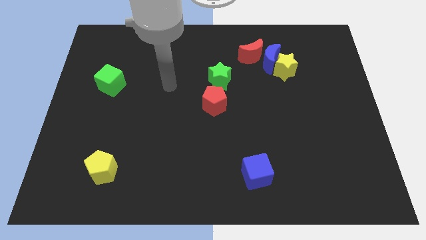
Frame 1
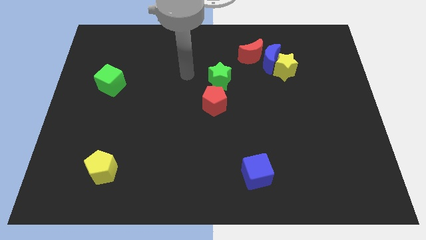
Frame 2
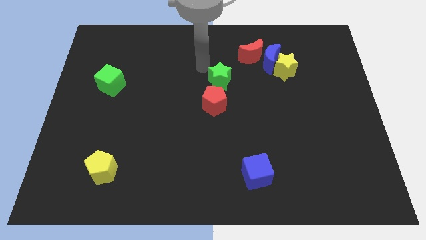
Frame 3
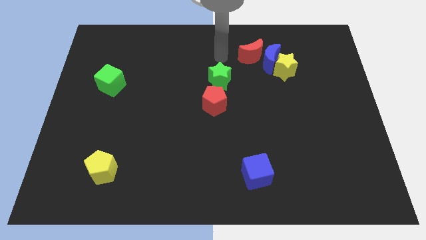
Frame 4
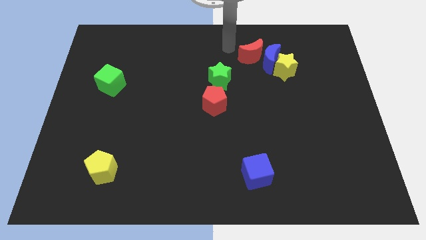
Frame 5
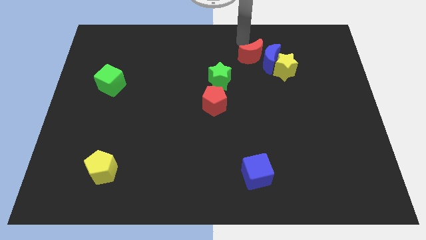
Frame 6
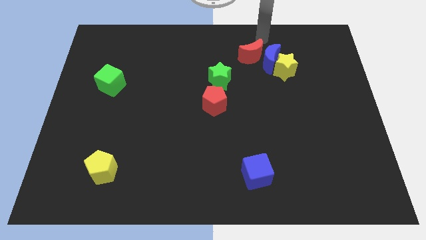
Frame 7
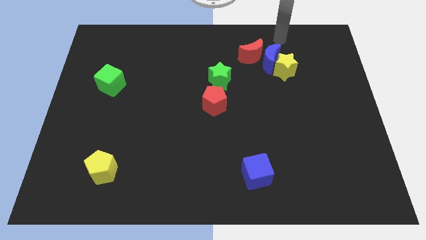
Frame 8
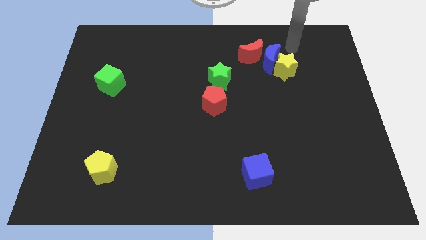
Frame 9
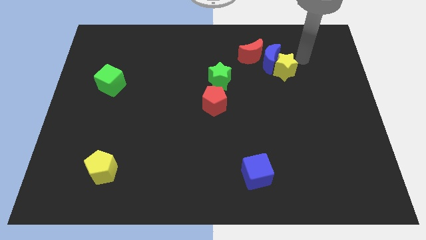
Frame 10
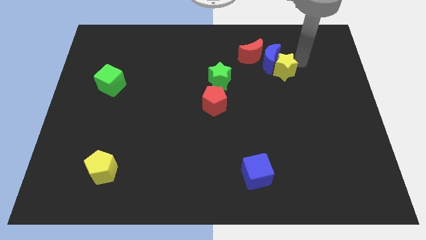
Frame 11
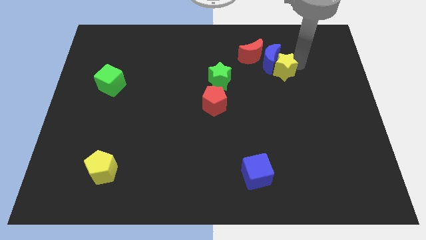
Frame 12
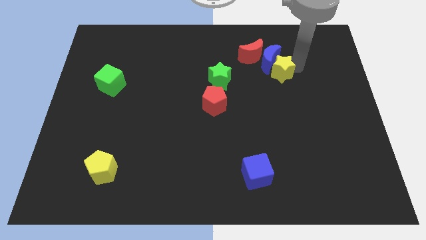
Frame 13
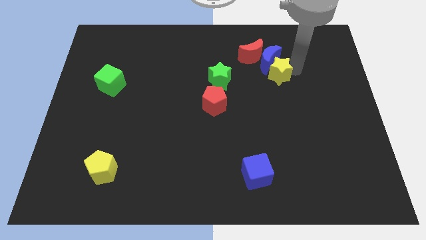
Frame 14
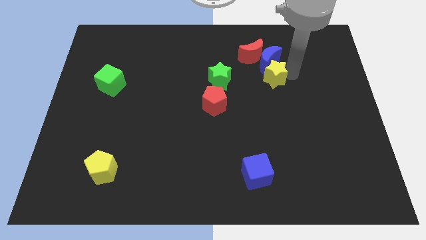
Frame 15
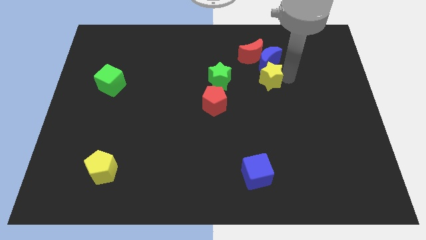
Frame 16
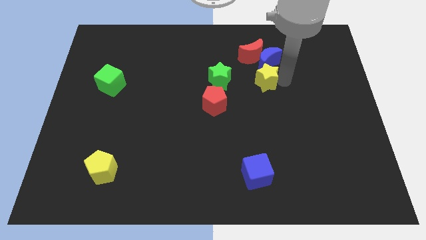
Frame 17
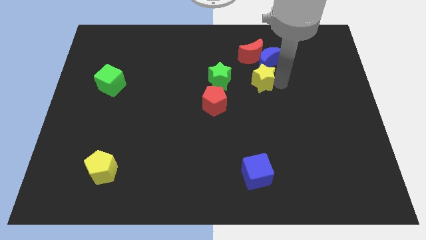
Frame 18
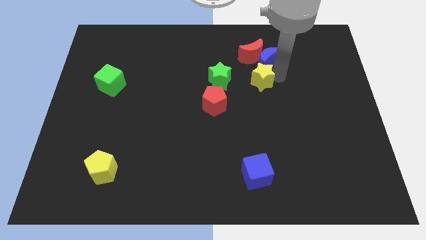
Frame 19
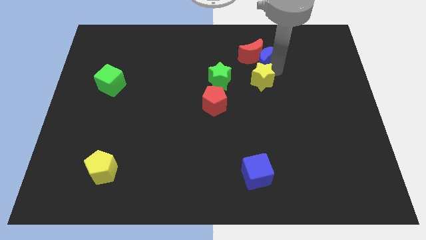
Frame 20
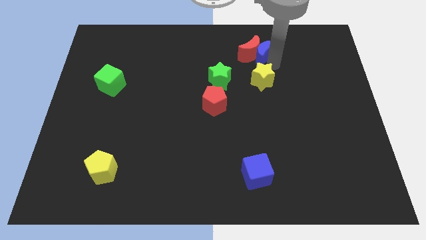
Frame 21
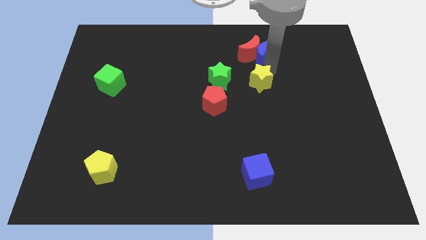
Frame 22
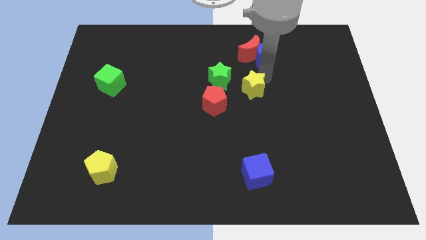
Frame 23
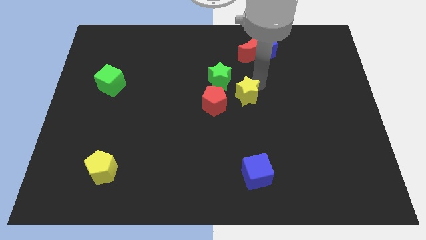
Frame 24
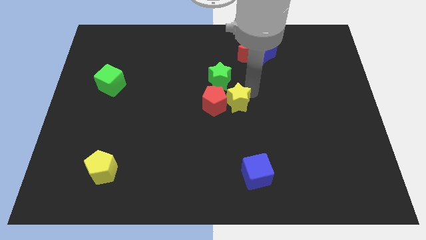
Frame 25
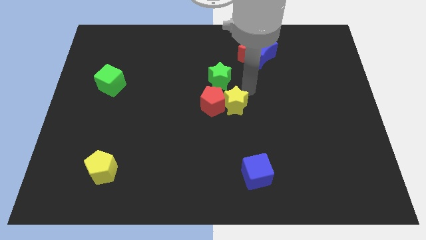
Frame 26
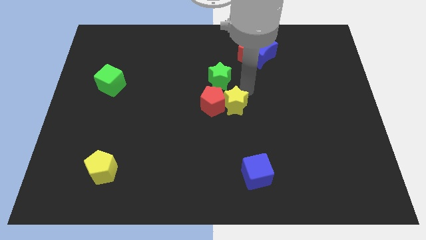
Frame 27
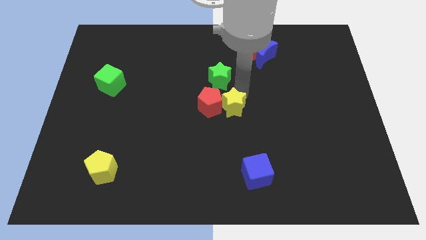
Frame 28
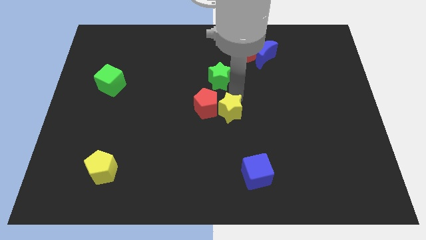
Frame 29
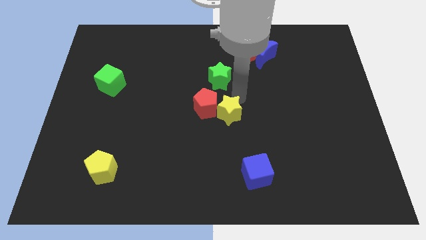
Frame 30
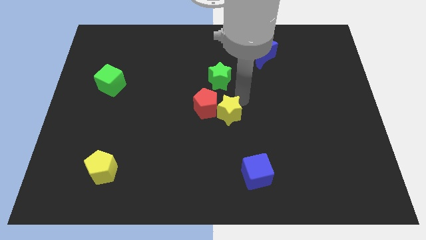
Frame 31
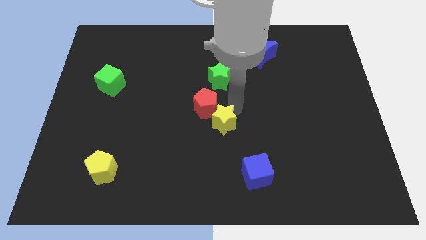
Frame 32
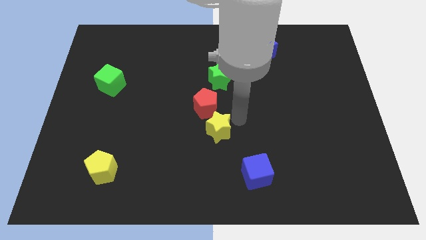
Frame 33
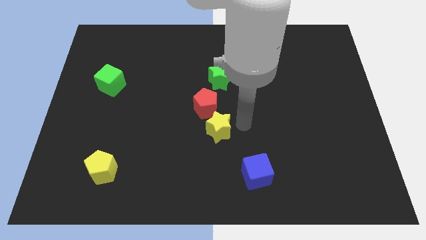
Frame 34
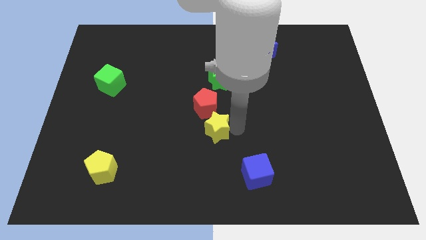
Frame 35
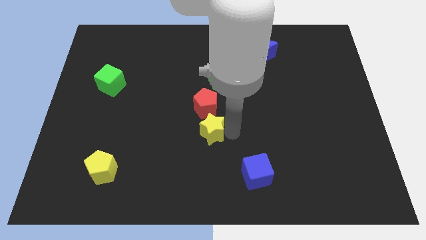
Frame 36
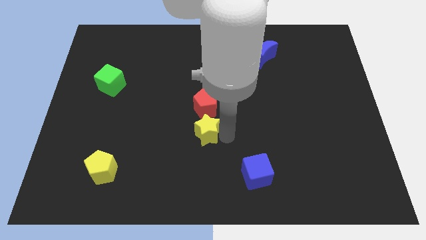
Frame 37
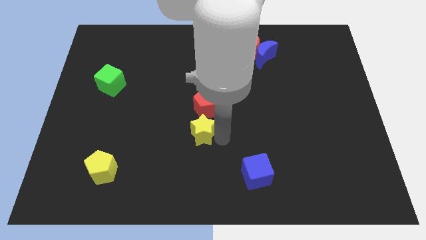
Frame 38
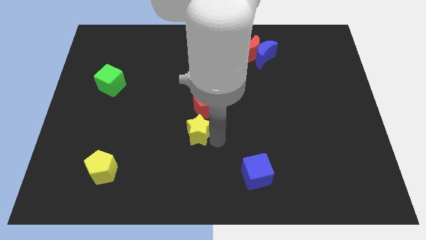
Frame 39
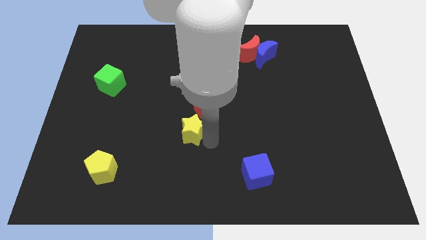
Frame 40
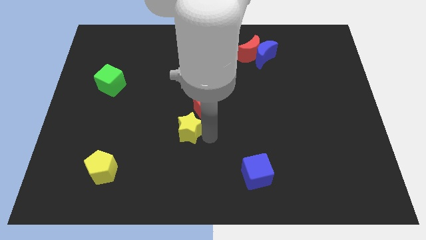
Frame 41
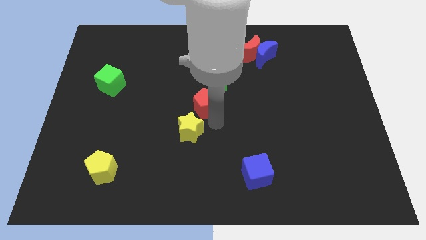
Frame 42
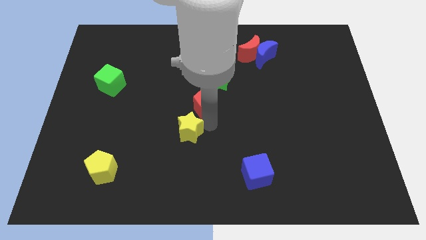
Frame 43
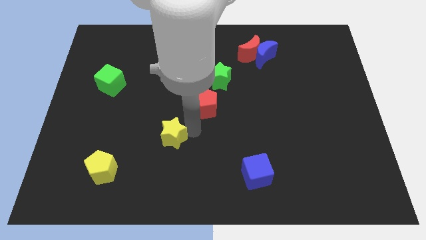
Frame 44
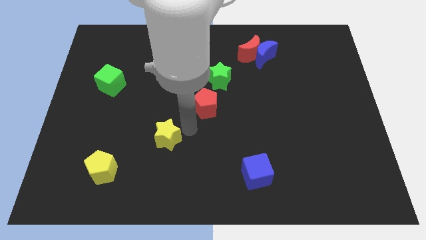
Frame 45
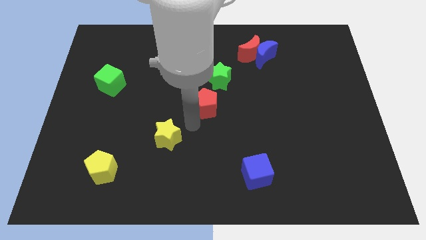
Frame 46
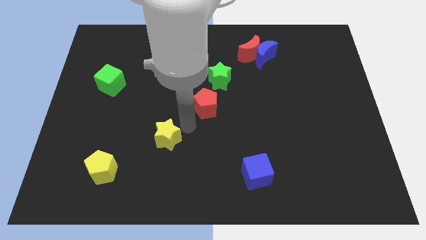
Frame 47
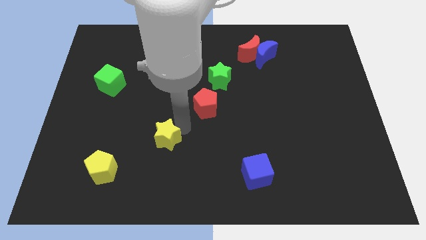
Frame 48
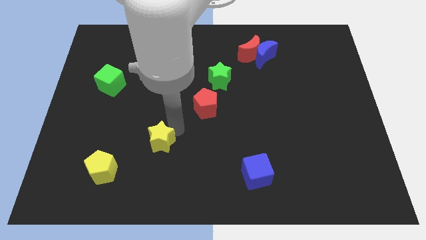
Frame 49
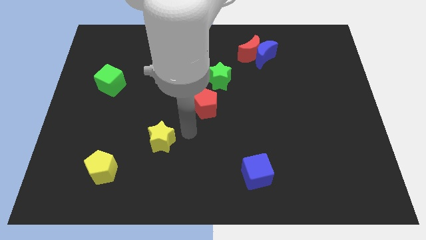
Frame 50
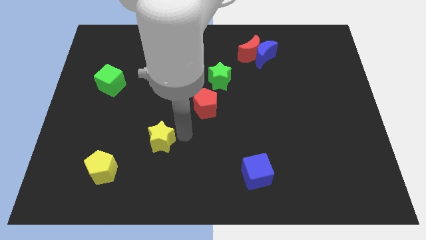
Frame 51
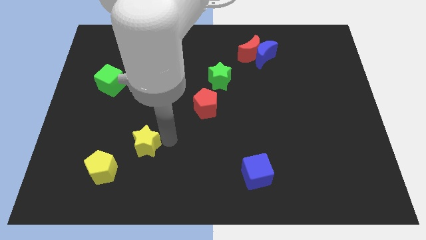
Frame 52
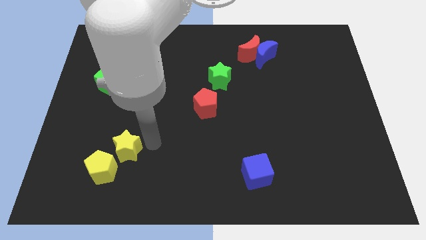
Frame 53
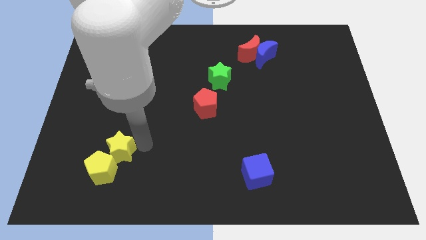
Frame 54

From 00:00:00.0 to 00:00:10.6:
put the yellow star next to the yellow pentagon

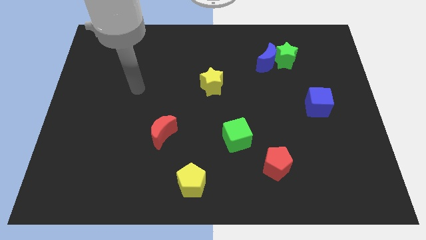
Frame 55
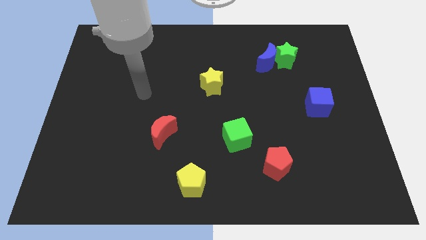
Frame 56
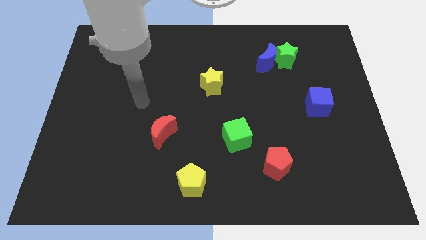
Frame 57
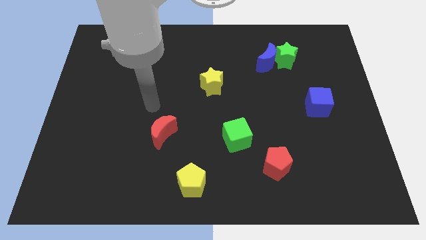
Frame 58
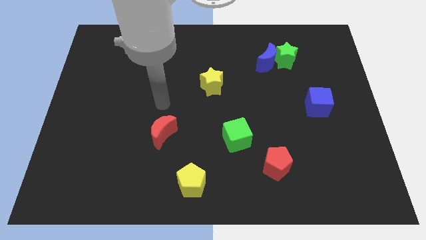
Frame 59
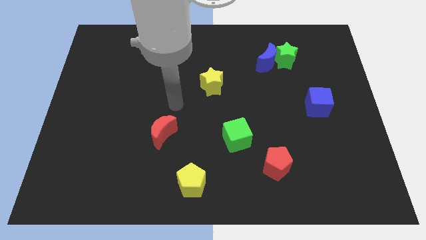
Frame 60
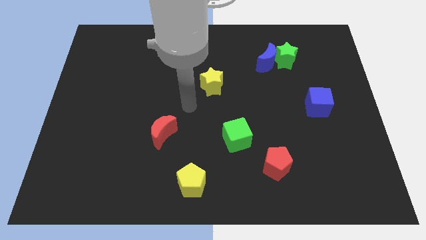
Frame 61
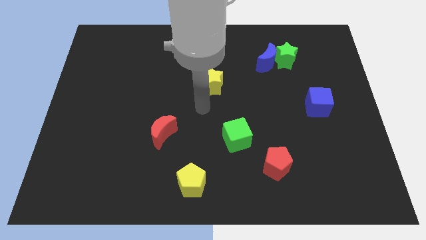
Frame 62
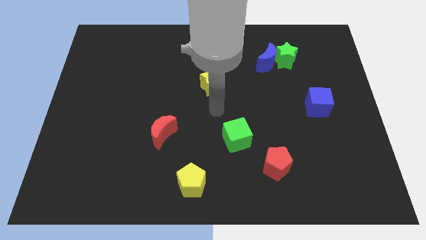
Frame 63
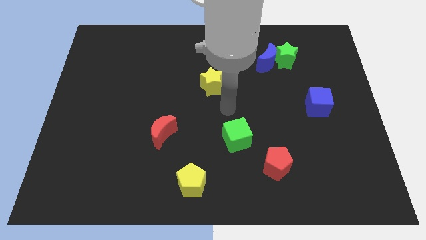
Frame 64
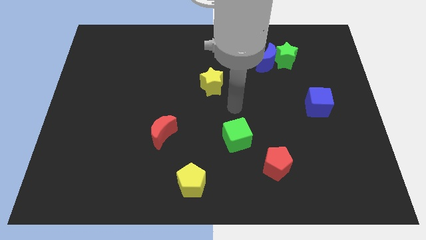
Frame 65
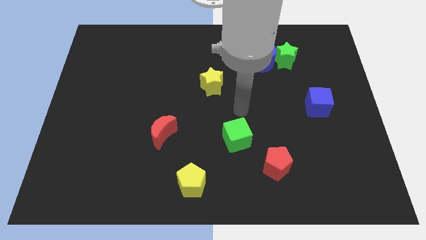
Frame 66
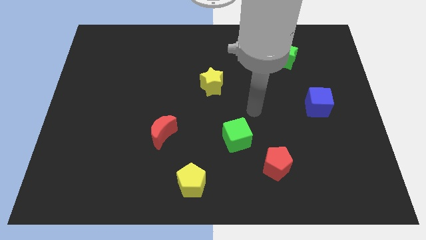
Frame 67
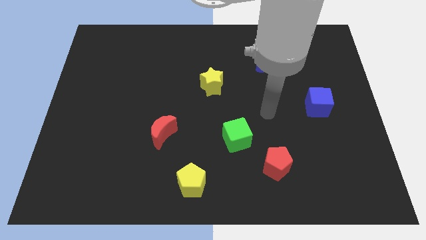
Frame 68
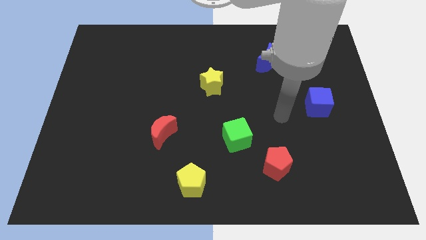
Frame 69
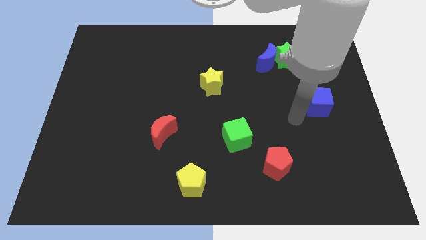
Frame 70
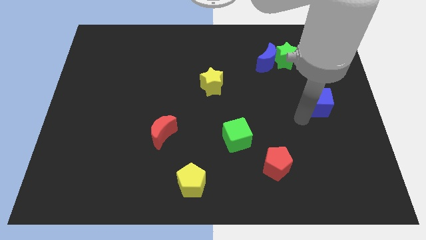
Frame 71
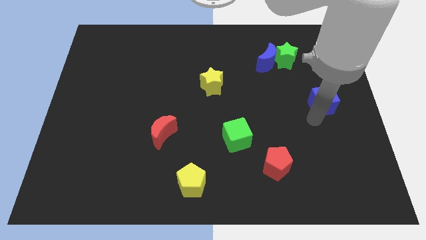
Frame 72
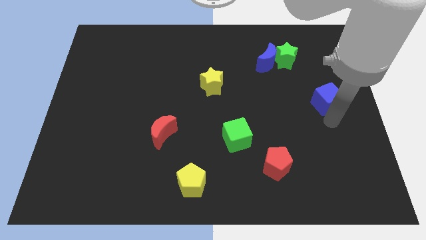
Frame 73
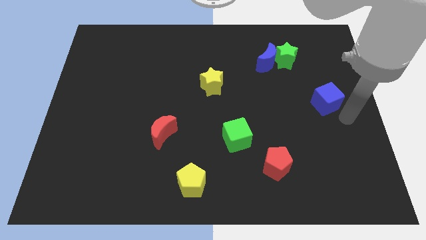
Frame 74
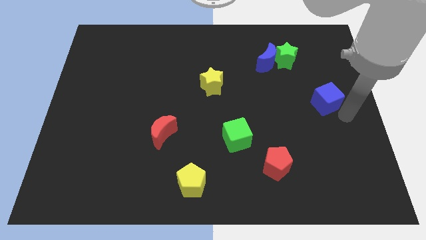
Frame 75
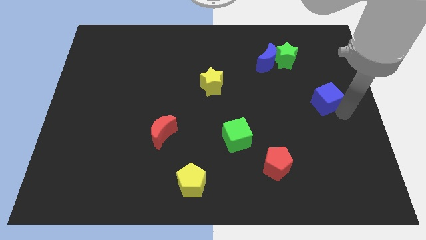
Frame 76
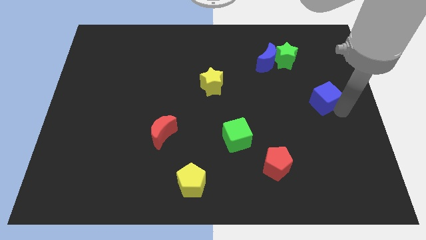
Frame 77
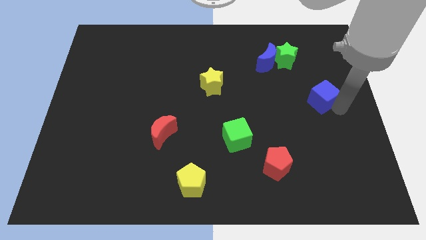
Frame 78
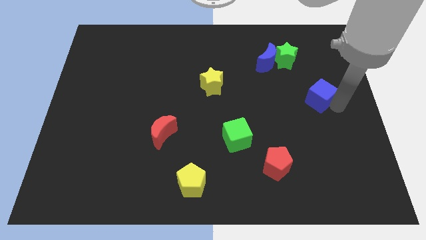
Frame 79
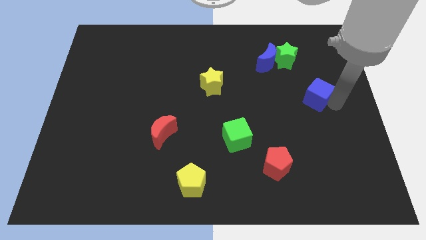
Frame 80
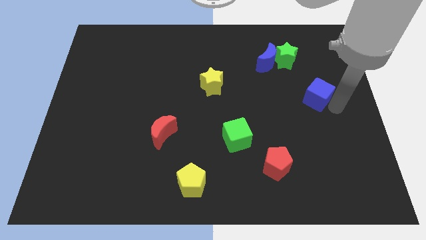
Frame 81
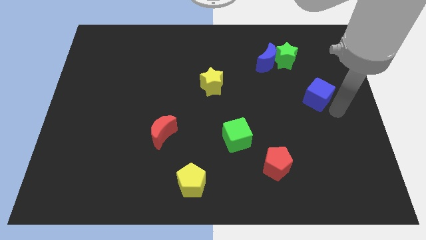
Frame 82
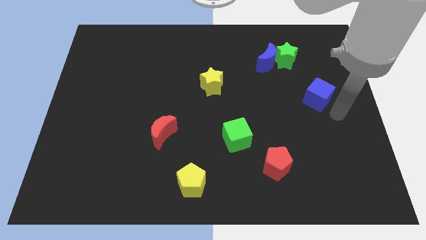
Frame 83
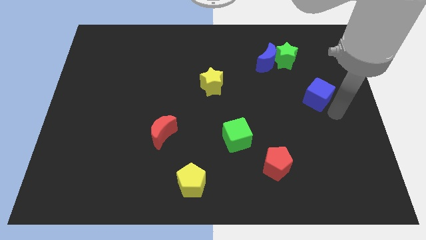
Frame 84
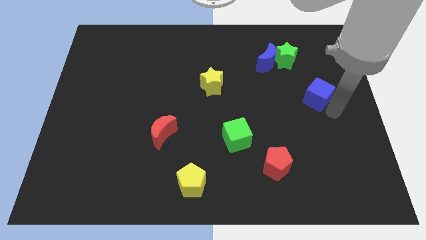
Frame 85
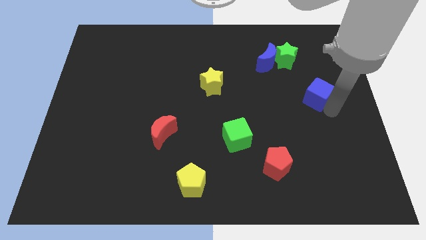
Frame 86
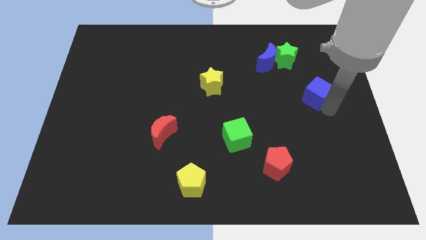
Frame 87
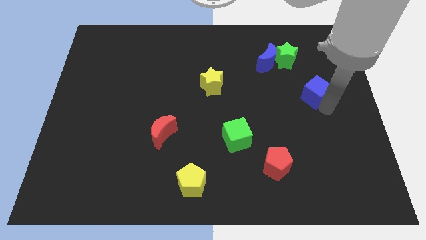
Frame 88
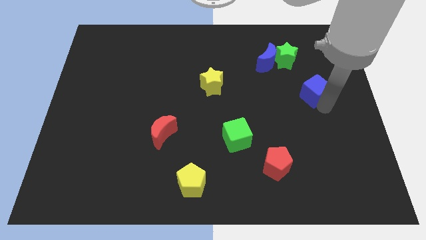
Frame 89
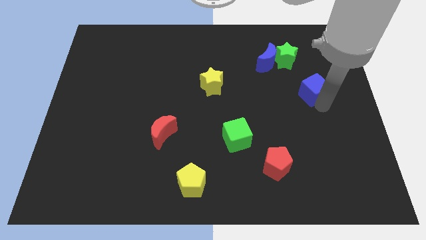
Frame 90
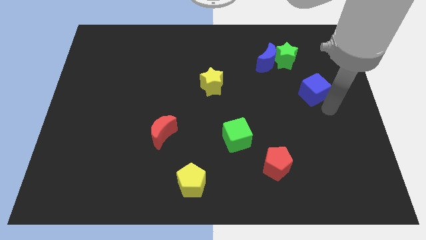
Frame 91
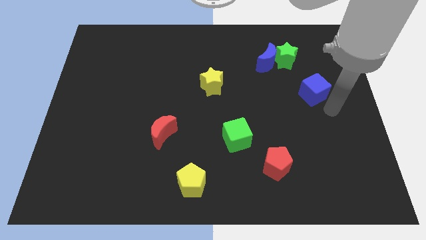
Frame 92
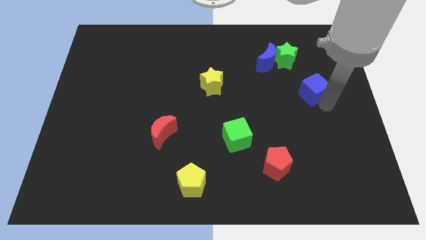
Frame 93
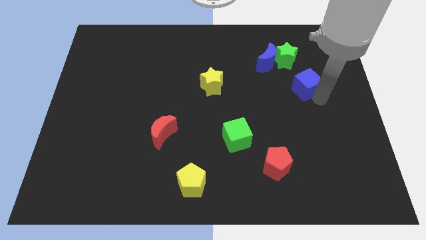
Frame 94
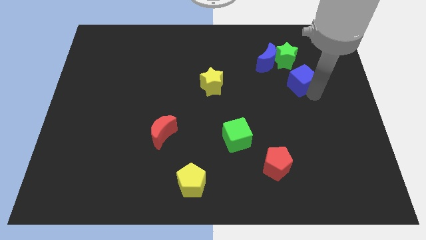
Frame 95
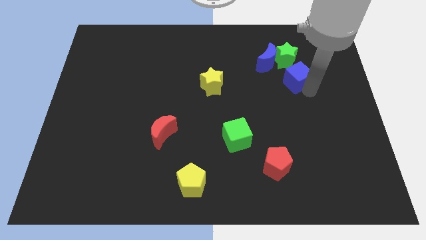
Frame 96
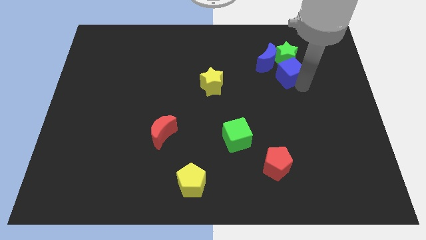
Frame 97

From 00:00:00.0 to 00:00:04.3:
put the blue cube to the green star
